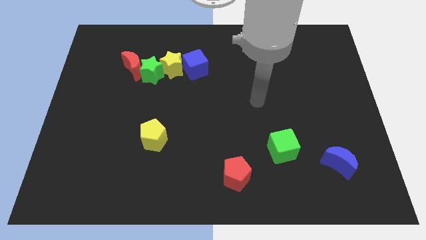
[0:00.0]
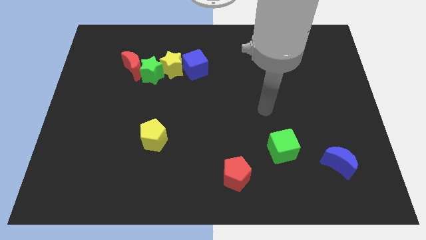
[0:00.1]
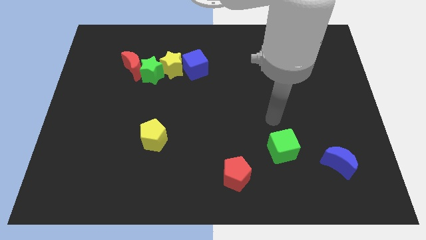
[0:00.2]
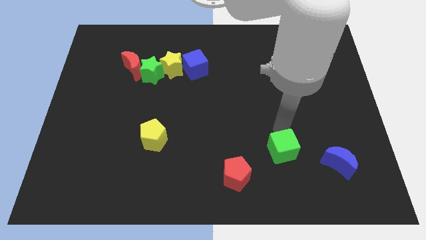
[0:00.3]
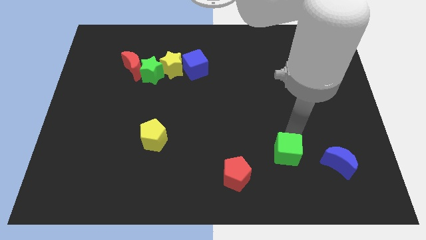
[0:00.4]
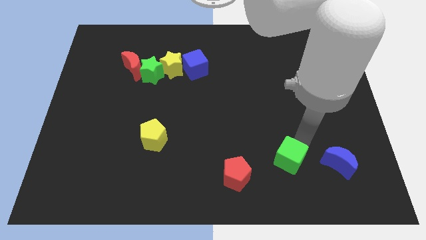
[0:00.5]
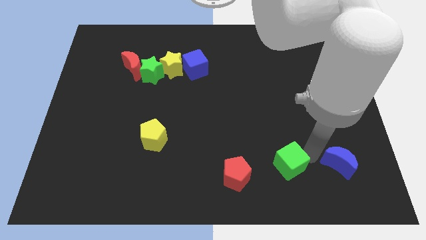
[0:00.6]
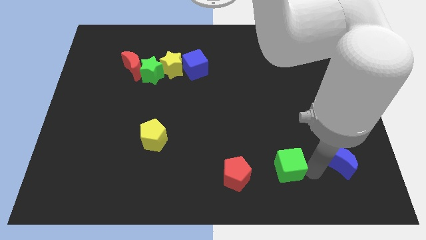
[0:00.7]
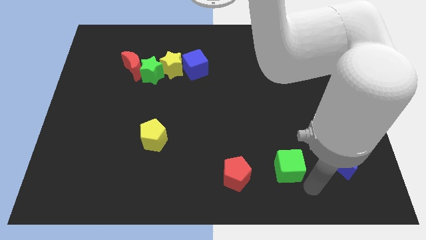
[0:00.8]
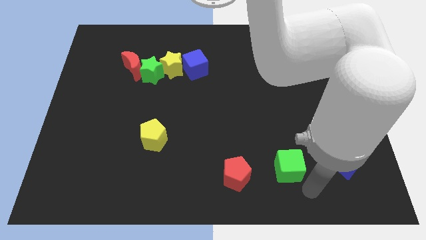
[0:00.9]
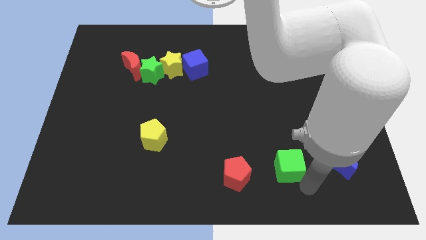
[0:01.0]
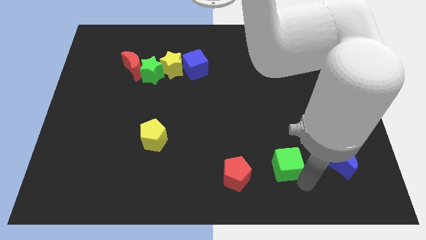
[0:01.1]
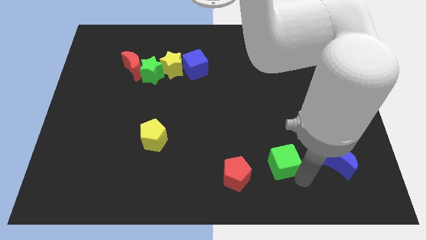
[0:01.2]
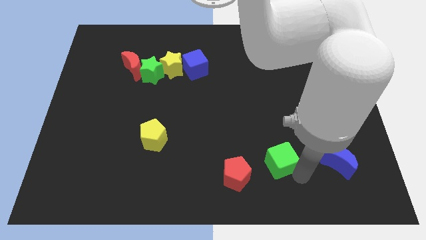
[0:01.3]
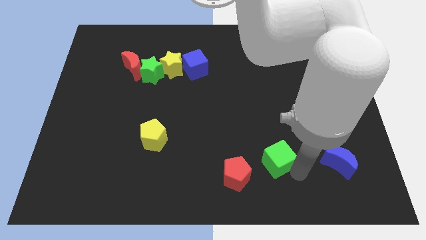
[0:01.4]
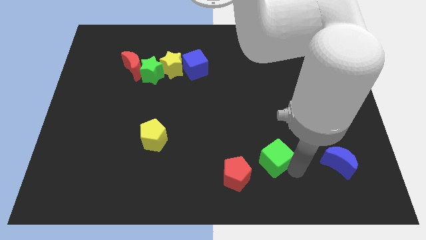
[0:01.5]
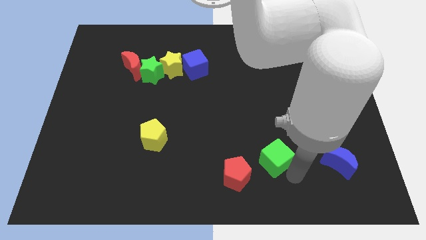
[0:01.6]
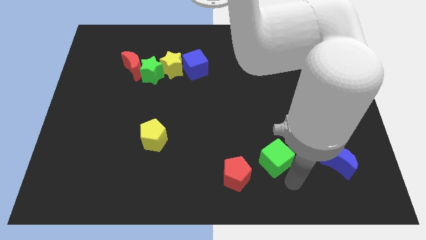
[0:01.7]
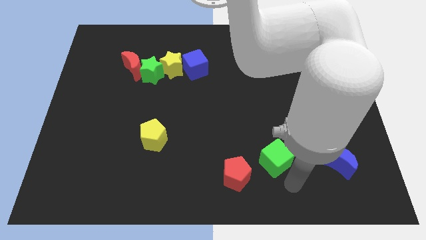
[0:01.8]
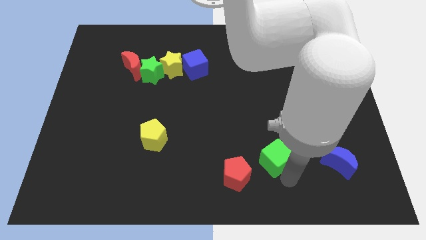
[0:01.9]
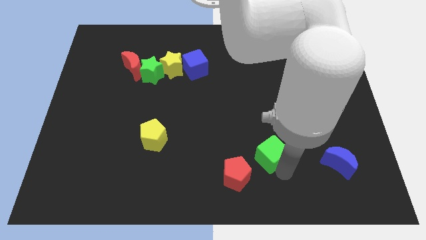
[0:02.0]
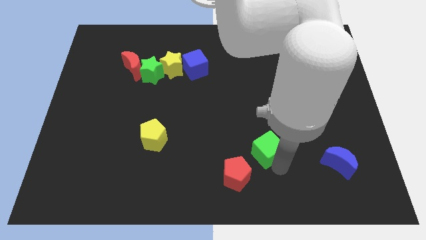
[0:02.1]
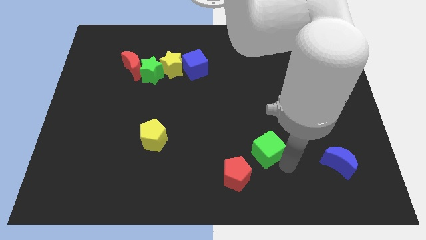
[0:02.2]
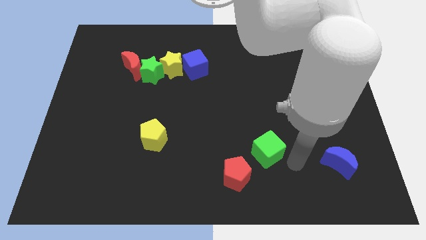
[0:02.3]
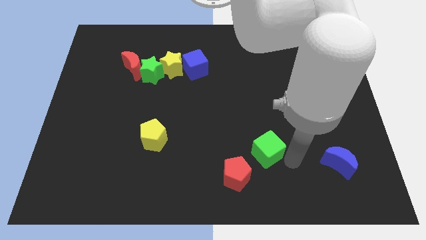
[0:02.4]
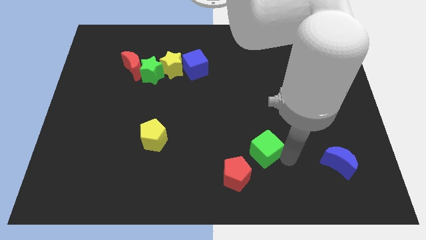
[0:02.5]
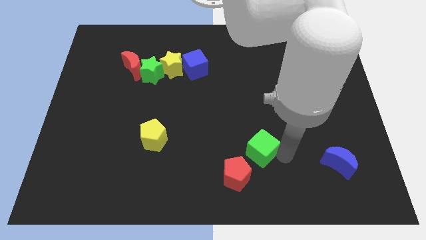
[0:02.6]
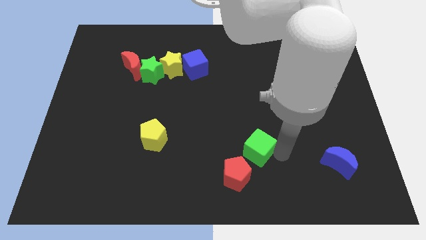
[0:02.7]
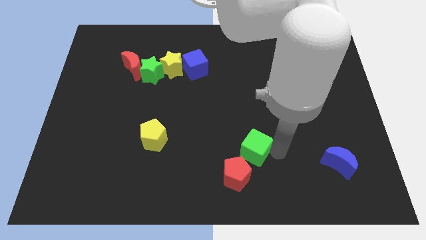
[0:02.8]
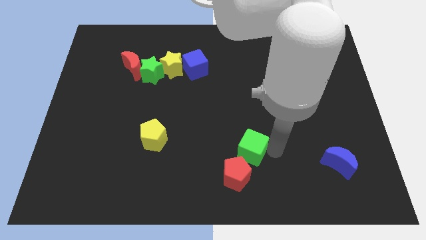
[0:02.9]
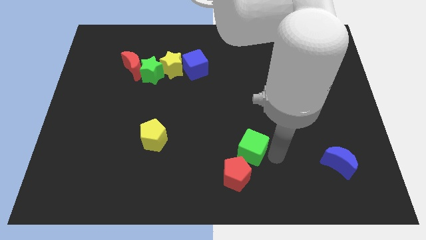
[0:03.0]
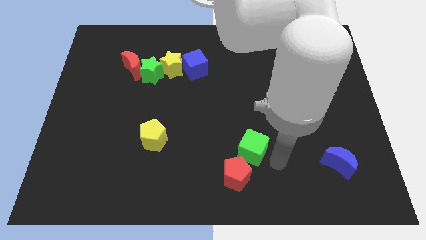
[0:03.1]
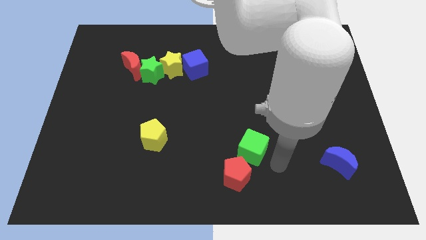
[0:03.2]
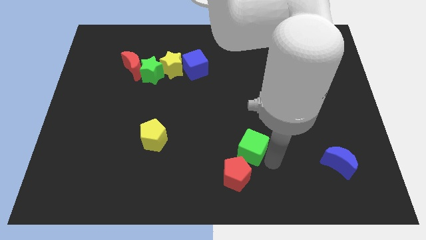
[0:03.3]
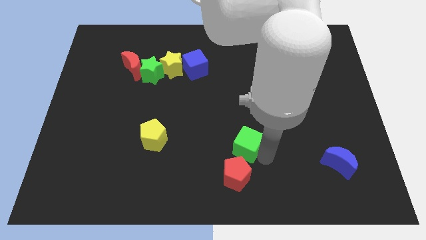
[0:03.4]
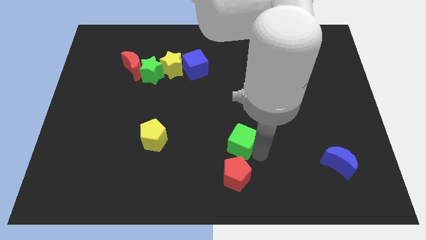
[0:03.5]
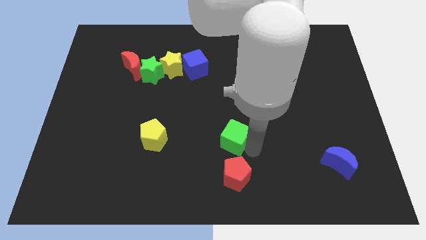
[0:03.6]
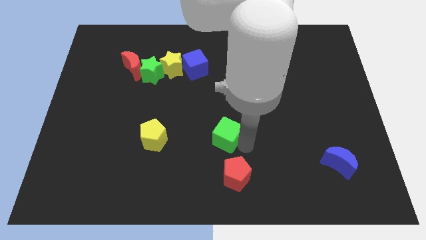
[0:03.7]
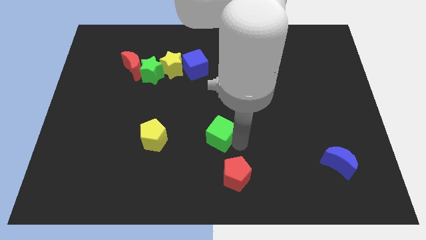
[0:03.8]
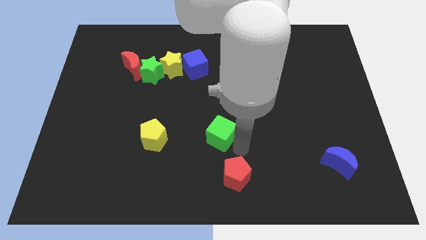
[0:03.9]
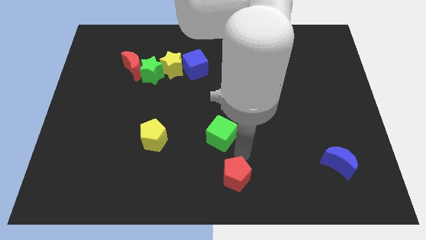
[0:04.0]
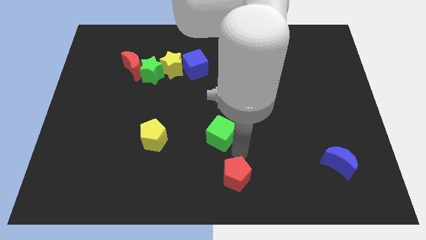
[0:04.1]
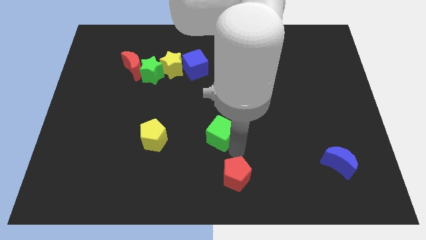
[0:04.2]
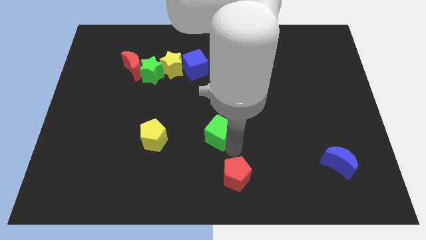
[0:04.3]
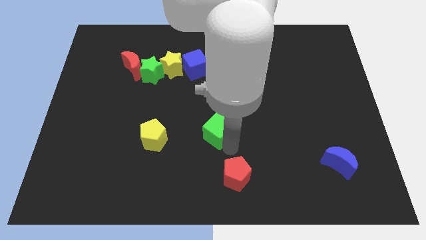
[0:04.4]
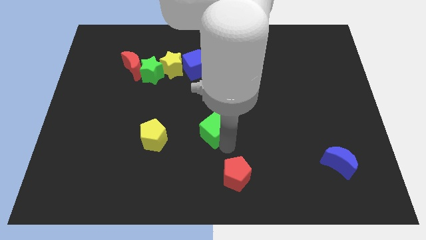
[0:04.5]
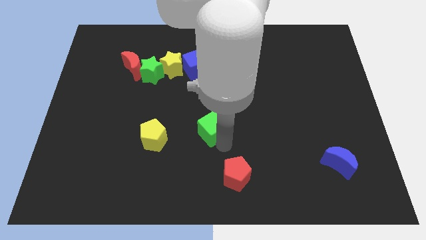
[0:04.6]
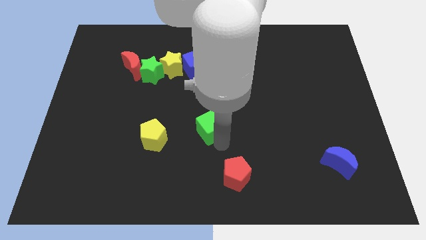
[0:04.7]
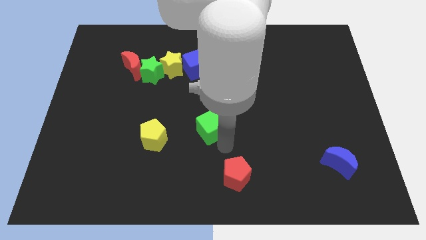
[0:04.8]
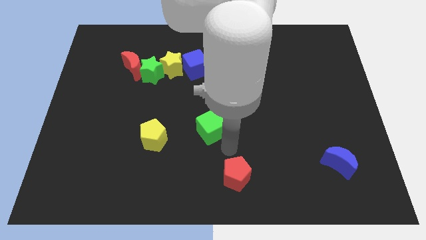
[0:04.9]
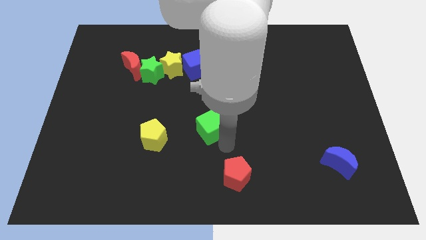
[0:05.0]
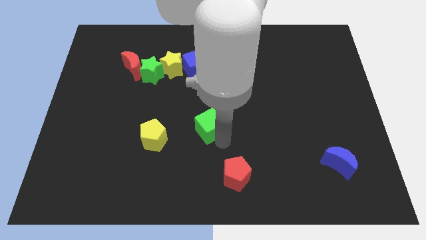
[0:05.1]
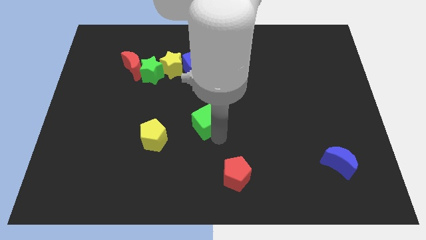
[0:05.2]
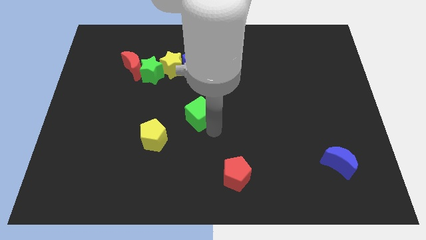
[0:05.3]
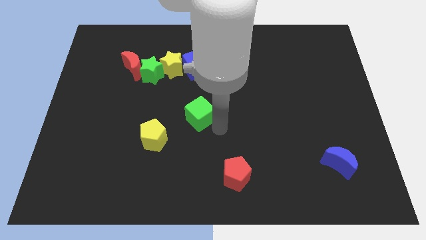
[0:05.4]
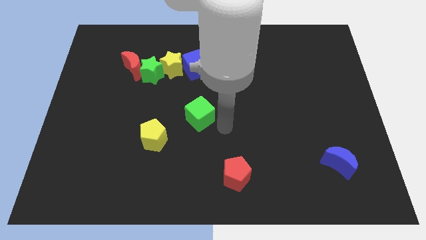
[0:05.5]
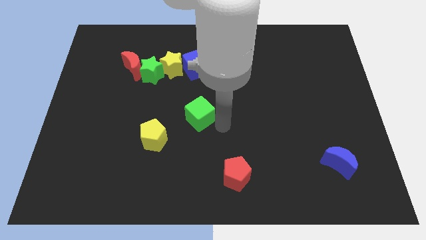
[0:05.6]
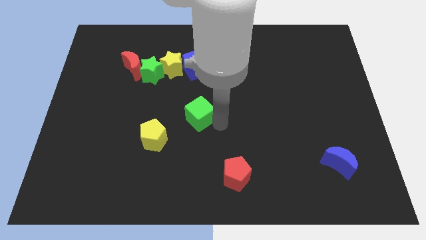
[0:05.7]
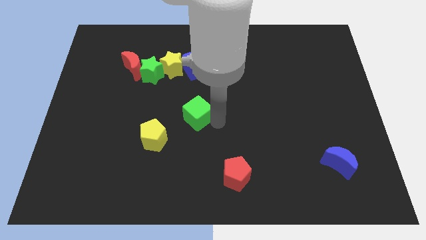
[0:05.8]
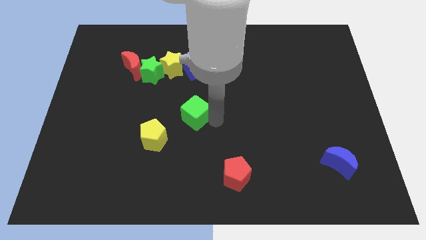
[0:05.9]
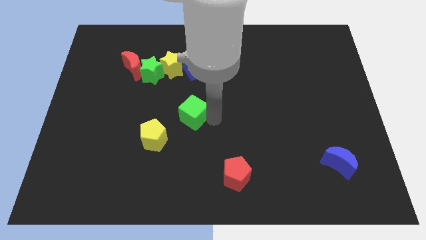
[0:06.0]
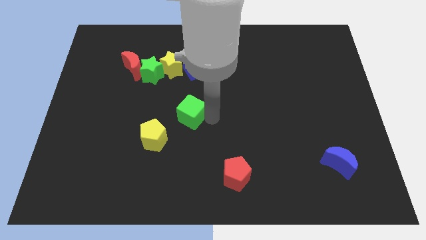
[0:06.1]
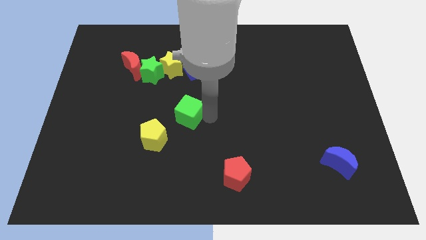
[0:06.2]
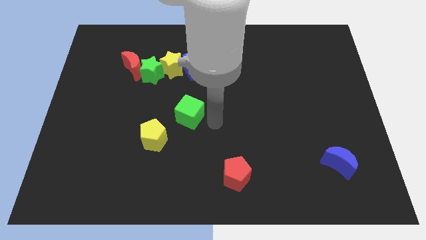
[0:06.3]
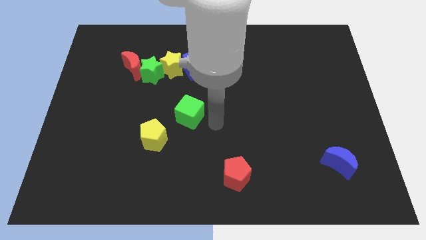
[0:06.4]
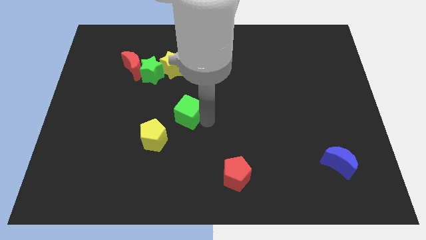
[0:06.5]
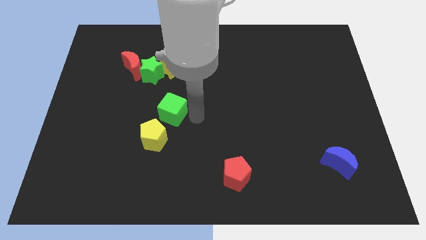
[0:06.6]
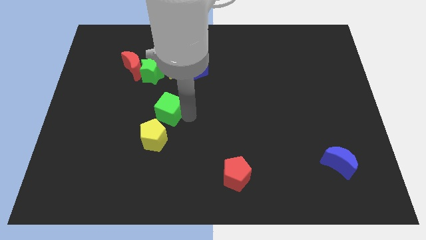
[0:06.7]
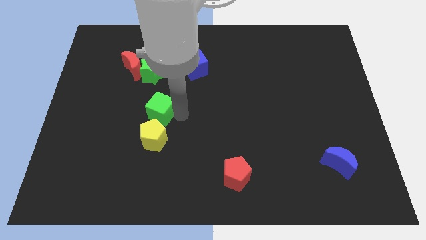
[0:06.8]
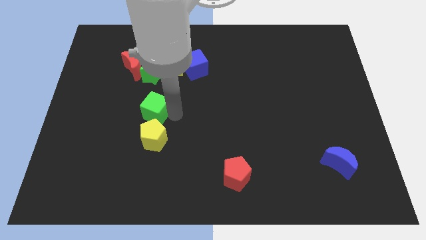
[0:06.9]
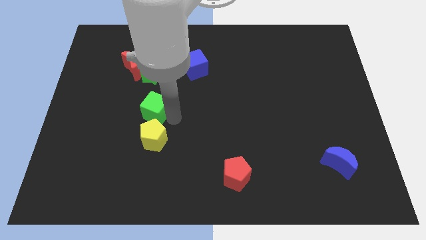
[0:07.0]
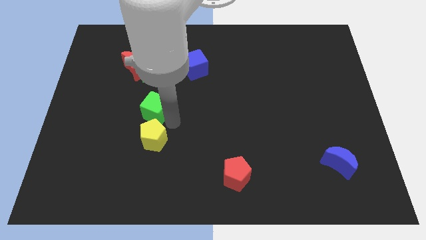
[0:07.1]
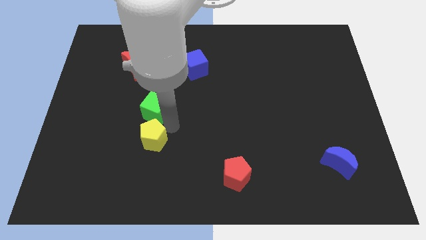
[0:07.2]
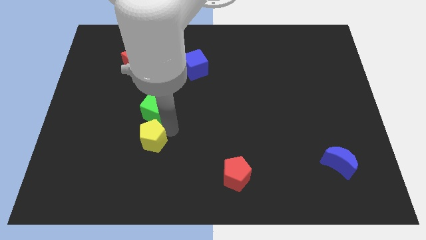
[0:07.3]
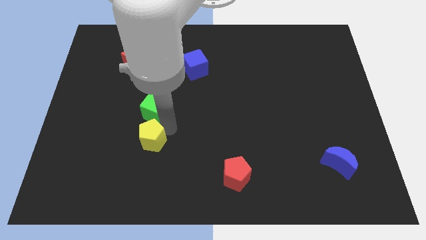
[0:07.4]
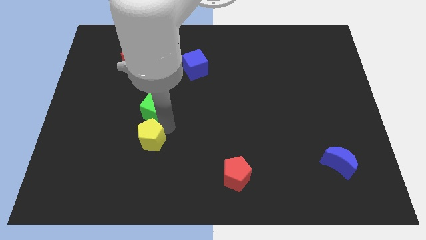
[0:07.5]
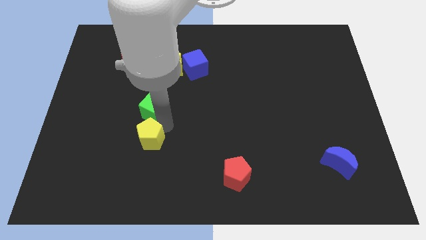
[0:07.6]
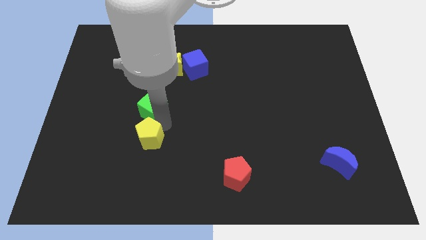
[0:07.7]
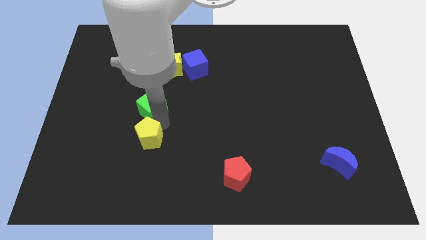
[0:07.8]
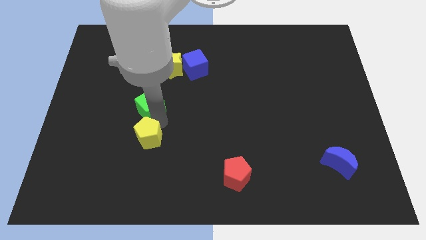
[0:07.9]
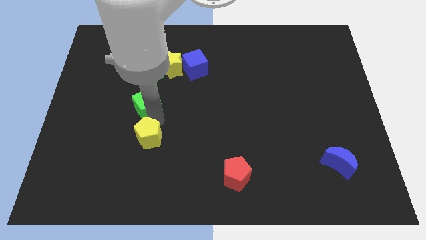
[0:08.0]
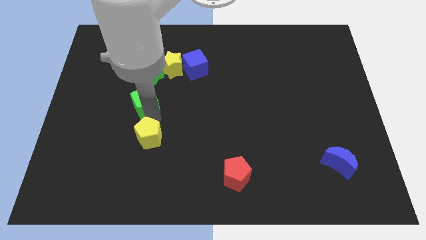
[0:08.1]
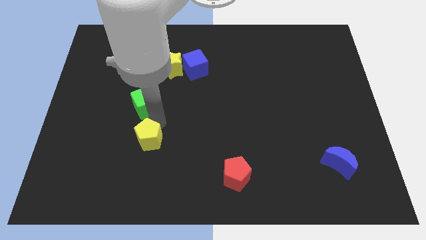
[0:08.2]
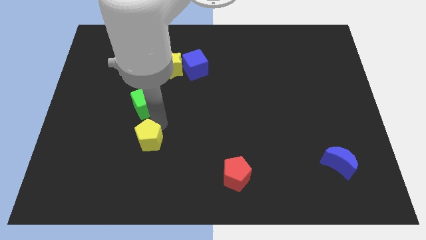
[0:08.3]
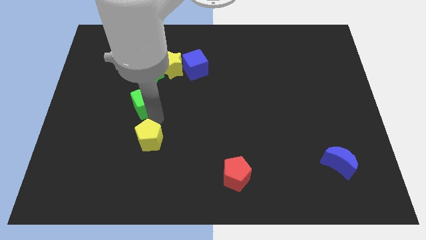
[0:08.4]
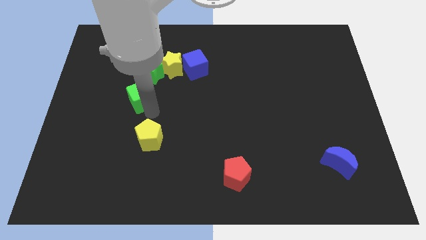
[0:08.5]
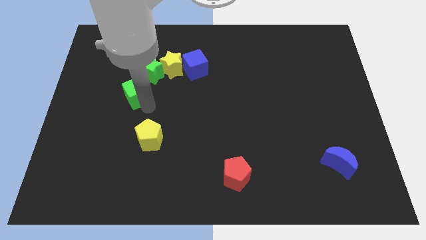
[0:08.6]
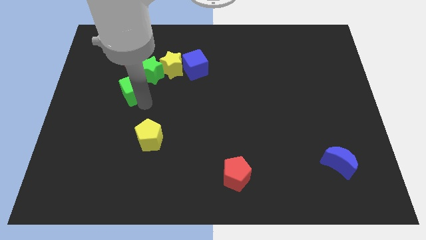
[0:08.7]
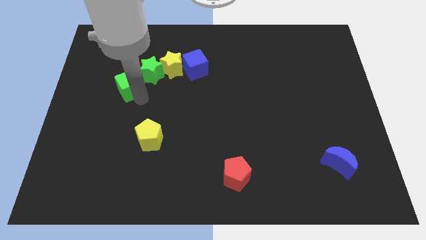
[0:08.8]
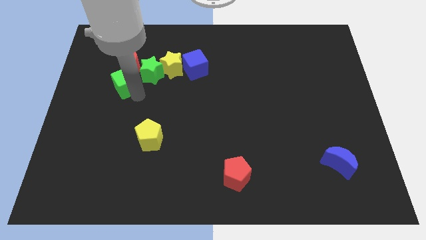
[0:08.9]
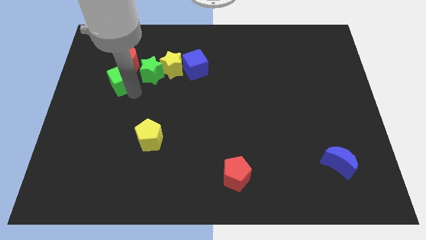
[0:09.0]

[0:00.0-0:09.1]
move the green cube to the left side of the yellow star
